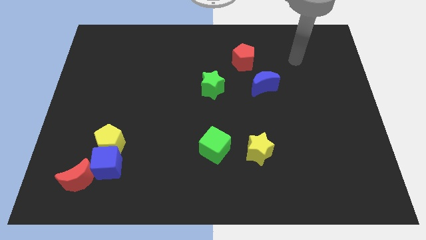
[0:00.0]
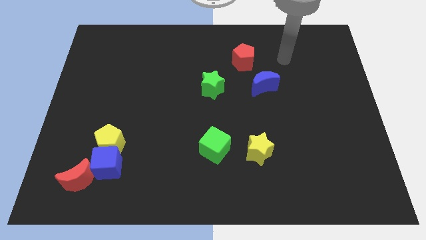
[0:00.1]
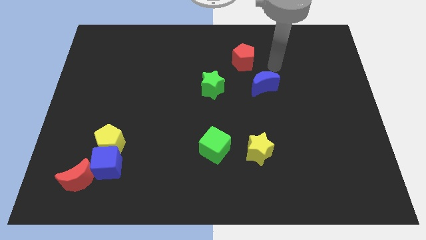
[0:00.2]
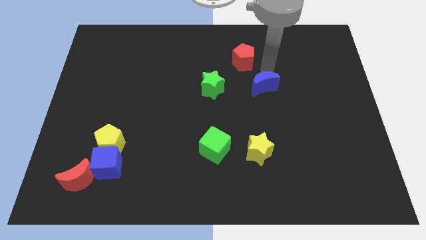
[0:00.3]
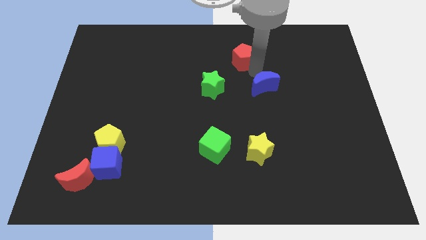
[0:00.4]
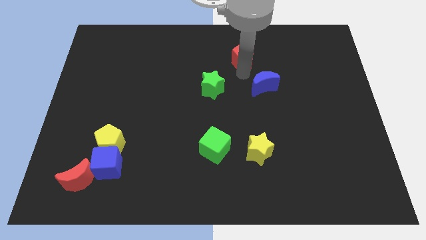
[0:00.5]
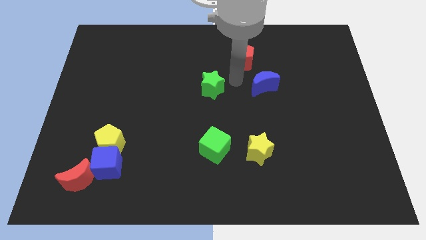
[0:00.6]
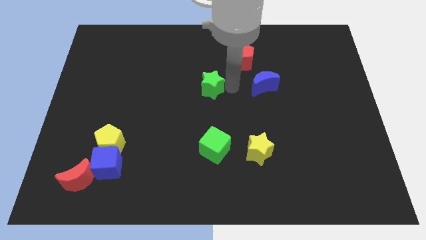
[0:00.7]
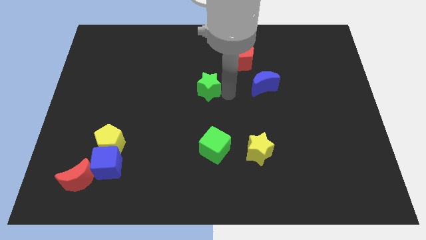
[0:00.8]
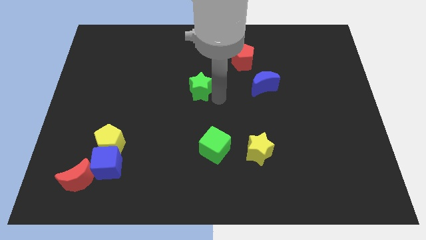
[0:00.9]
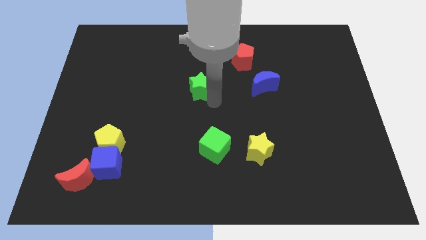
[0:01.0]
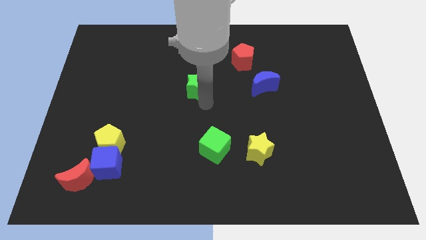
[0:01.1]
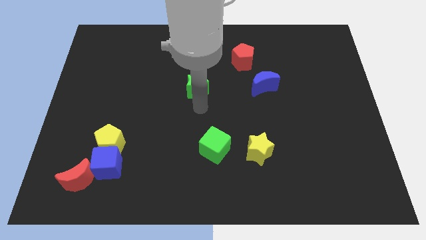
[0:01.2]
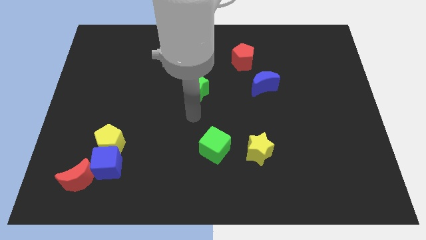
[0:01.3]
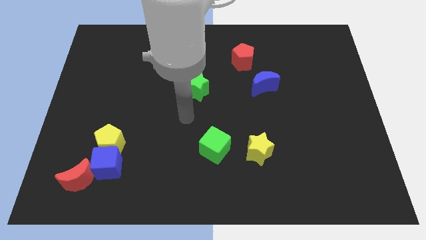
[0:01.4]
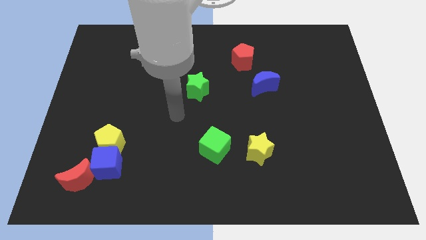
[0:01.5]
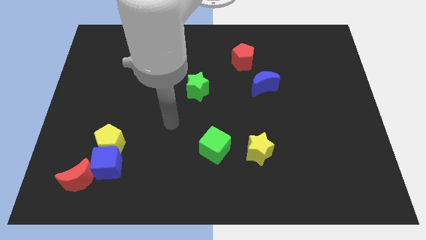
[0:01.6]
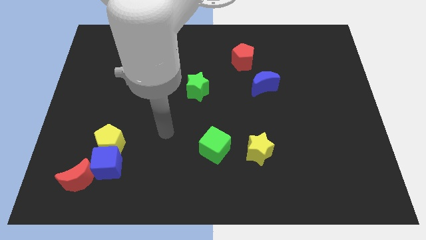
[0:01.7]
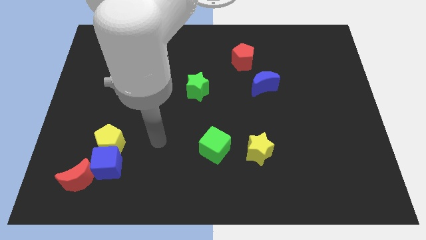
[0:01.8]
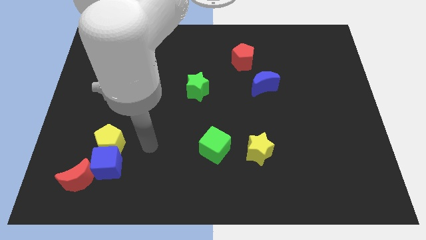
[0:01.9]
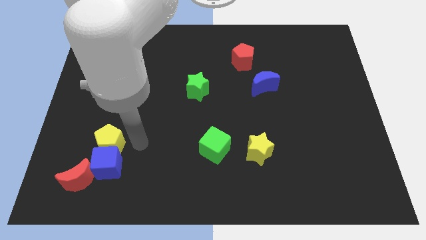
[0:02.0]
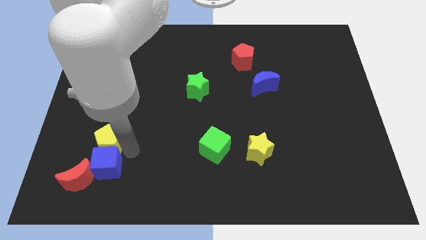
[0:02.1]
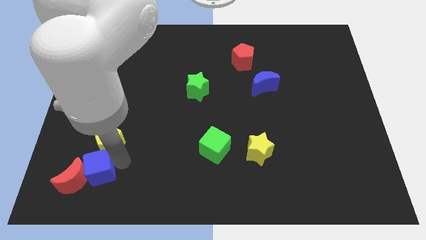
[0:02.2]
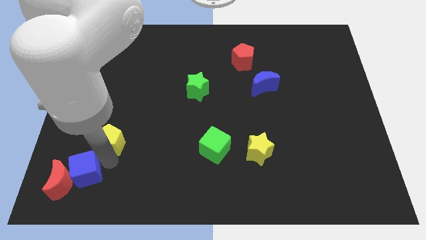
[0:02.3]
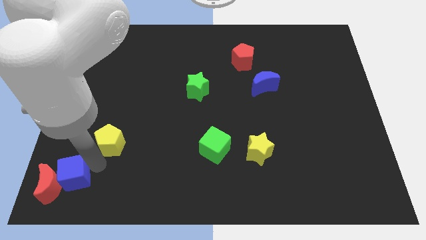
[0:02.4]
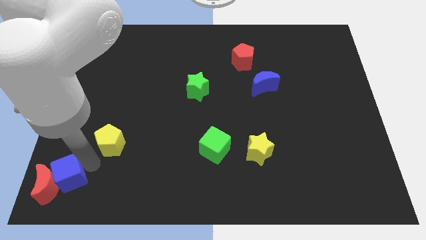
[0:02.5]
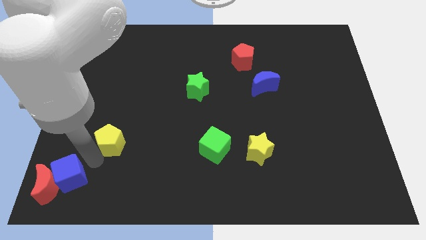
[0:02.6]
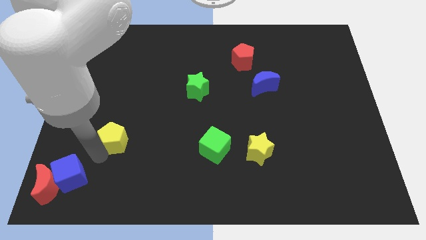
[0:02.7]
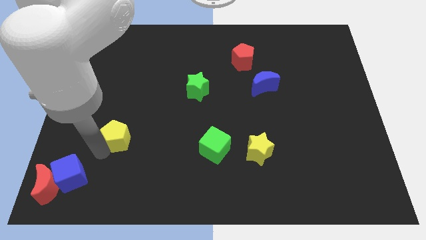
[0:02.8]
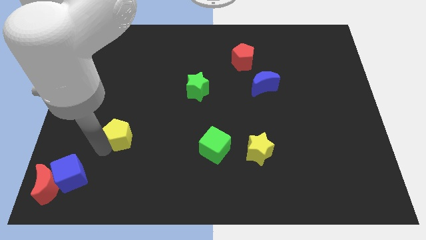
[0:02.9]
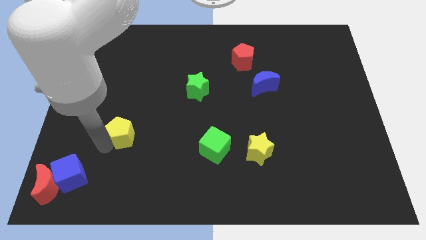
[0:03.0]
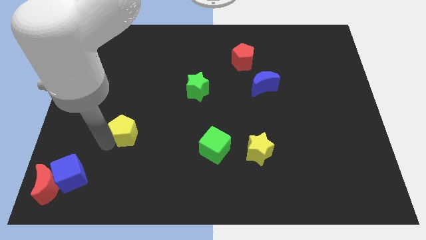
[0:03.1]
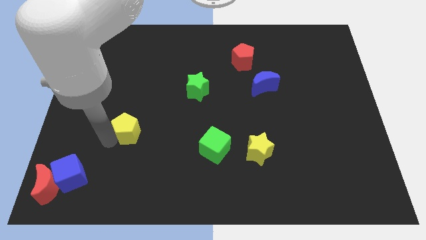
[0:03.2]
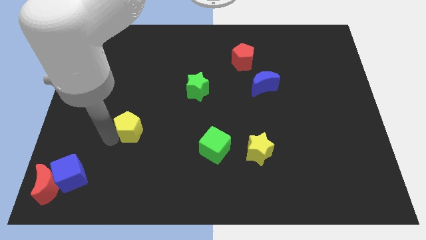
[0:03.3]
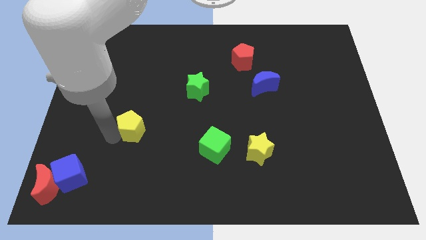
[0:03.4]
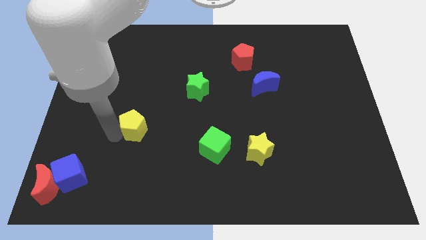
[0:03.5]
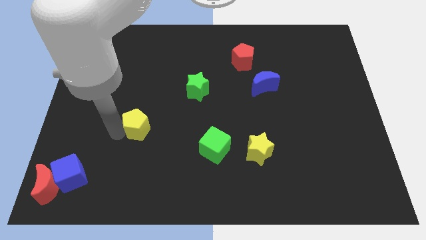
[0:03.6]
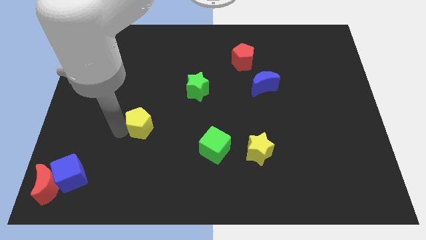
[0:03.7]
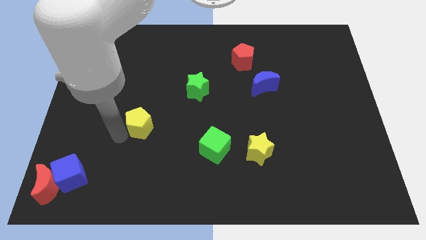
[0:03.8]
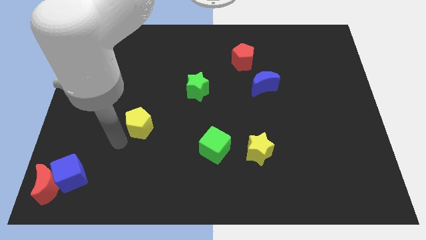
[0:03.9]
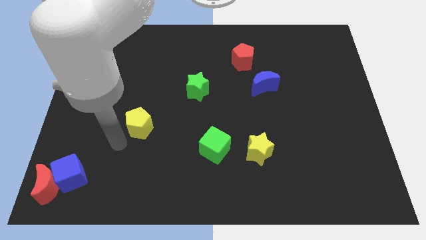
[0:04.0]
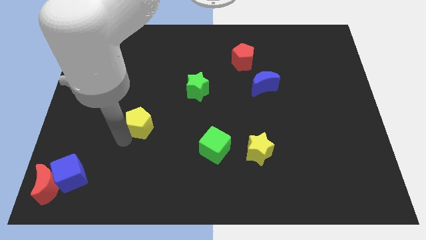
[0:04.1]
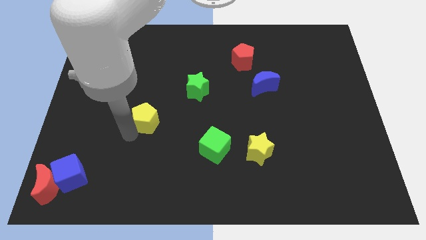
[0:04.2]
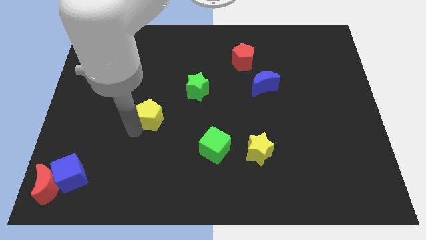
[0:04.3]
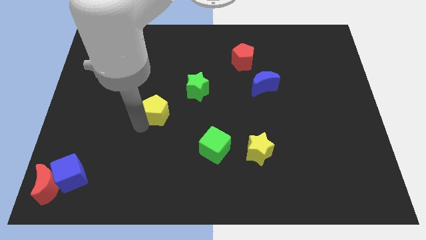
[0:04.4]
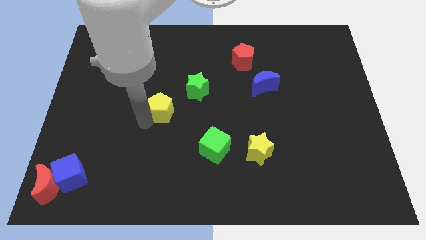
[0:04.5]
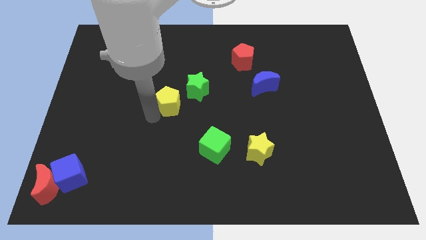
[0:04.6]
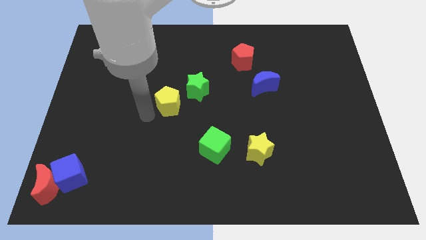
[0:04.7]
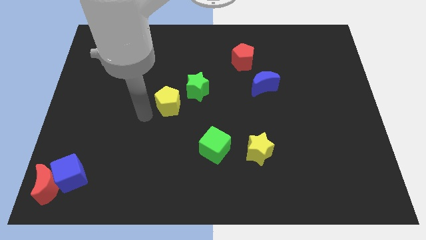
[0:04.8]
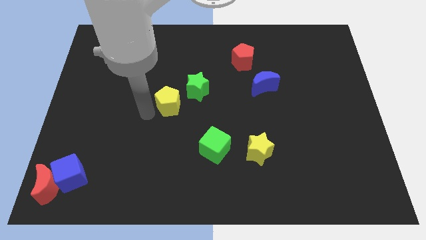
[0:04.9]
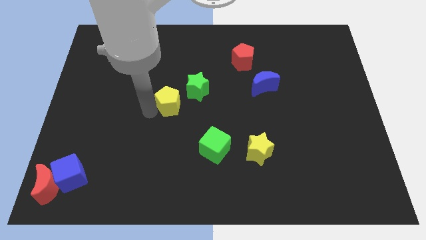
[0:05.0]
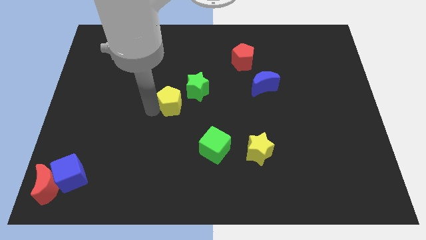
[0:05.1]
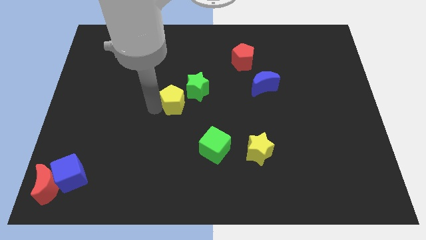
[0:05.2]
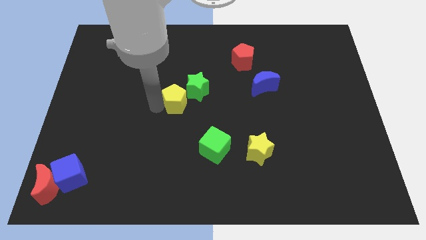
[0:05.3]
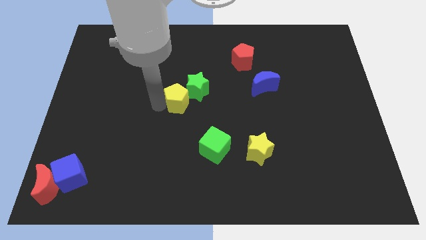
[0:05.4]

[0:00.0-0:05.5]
slide the yellow pentagon close to the green star

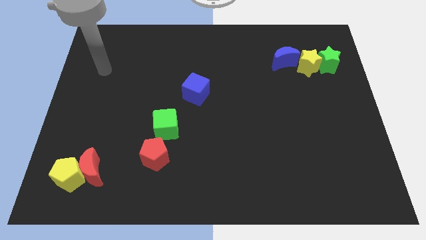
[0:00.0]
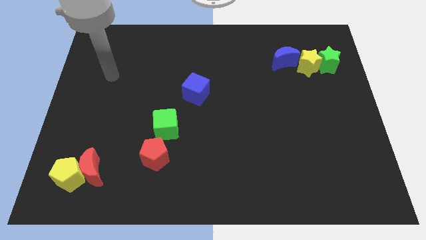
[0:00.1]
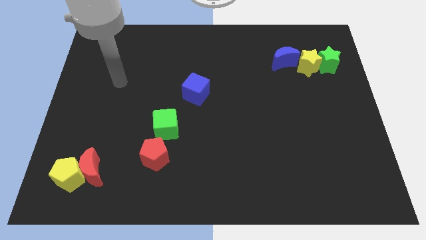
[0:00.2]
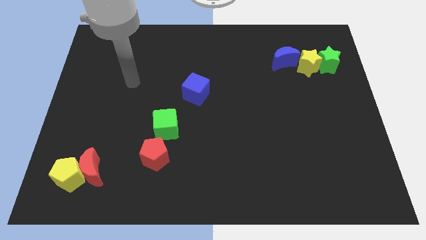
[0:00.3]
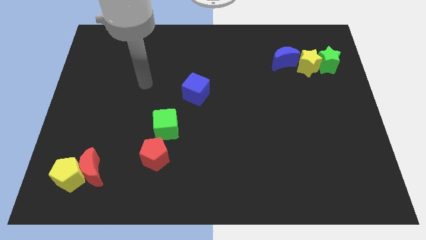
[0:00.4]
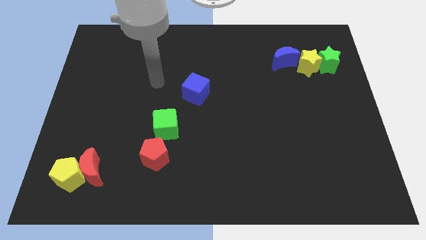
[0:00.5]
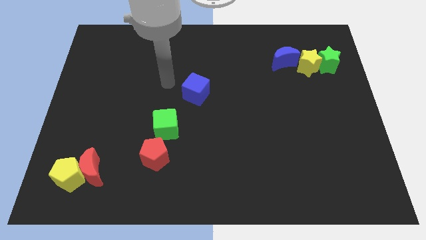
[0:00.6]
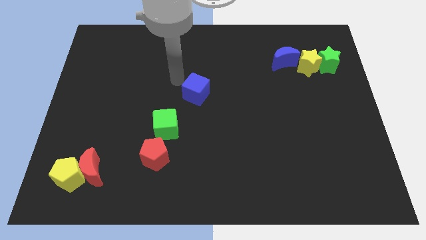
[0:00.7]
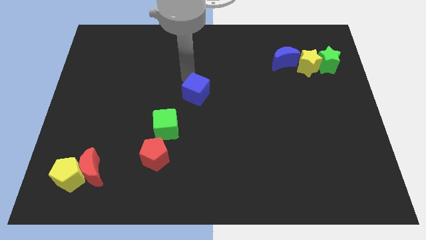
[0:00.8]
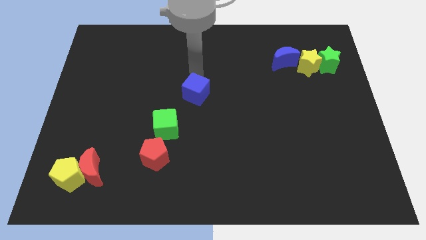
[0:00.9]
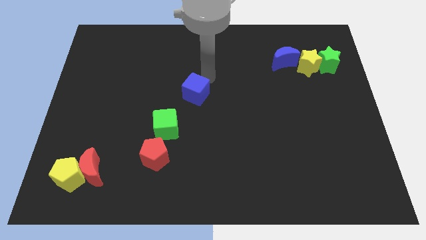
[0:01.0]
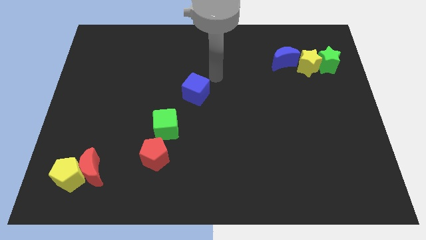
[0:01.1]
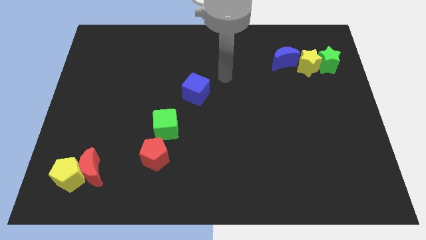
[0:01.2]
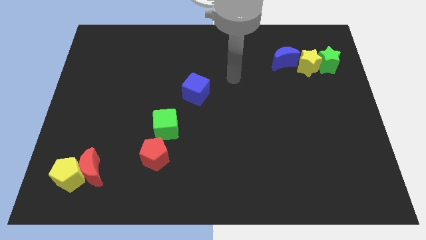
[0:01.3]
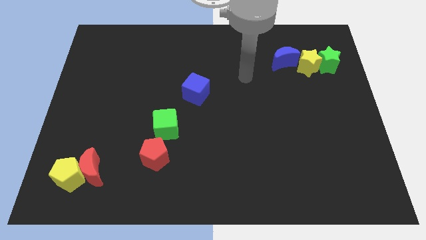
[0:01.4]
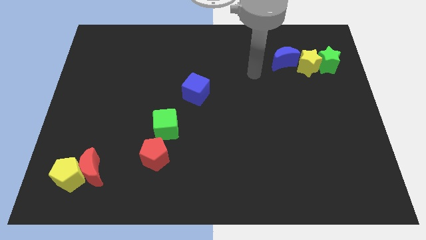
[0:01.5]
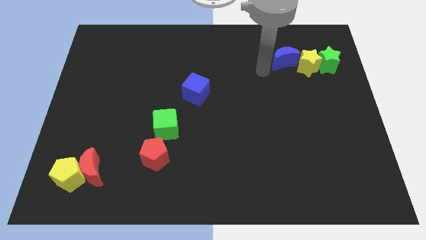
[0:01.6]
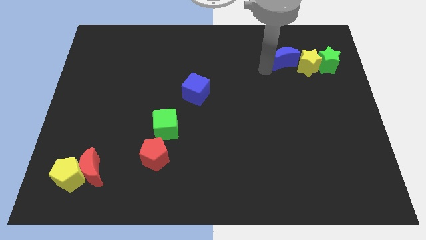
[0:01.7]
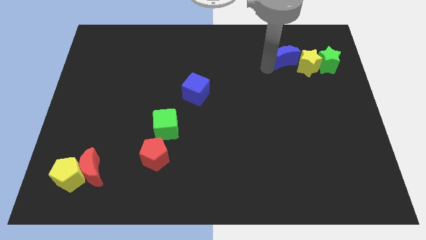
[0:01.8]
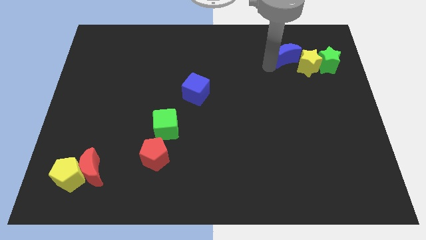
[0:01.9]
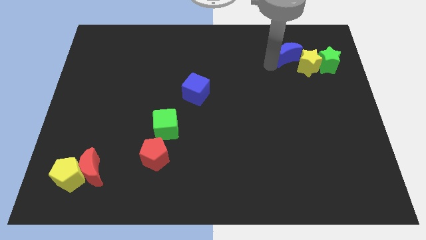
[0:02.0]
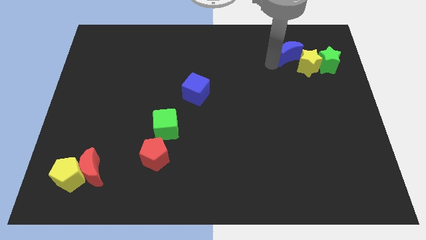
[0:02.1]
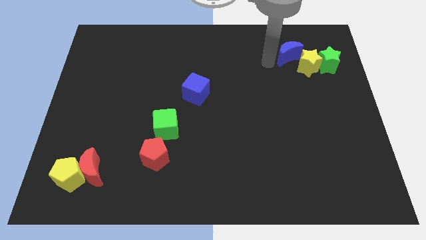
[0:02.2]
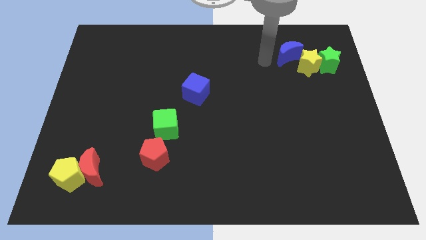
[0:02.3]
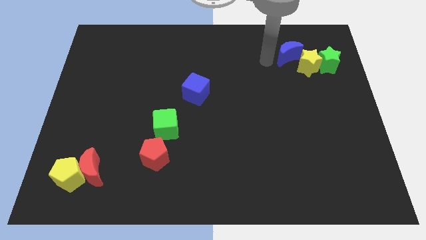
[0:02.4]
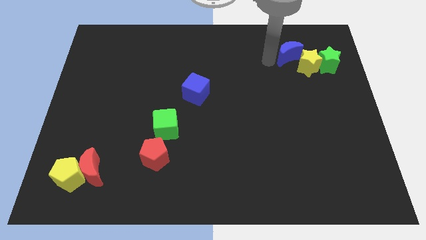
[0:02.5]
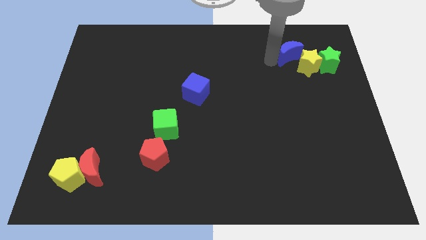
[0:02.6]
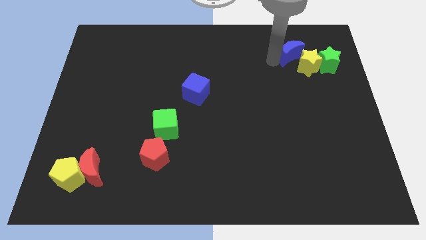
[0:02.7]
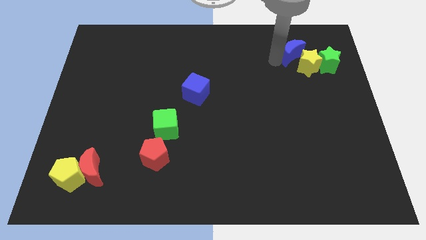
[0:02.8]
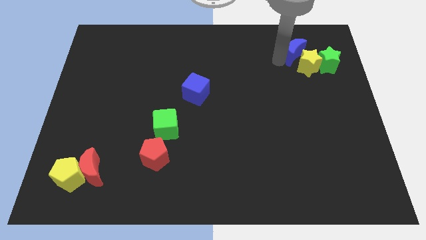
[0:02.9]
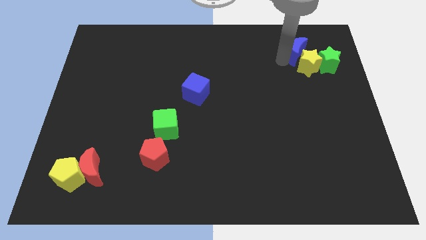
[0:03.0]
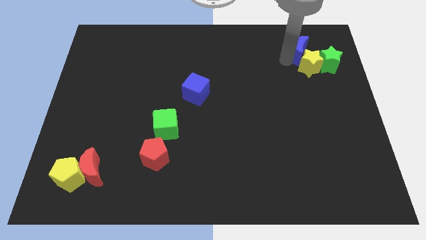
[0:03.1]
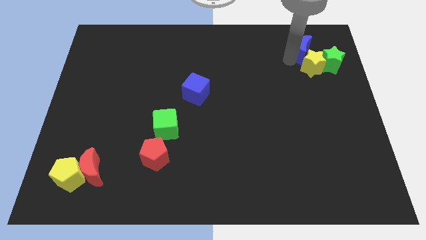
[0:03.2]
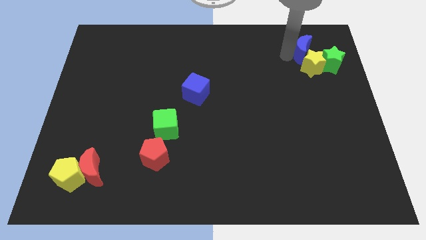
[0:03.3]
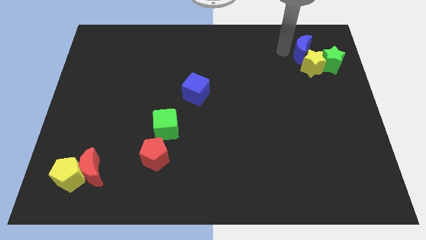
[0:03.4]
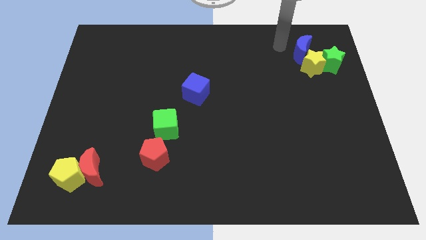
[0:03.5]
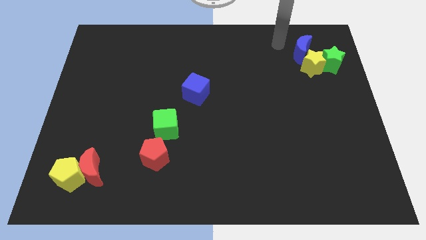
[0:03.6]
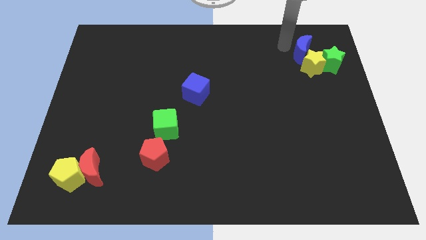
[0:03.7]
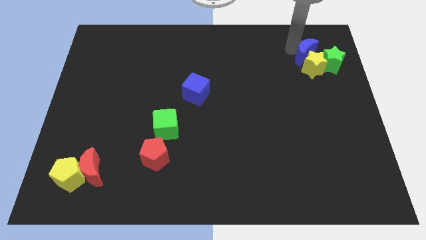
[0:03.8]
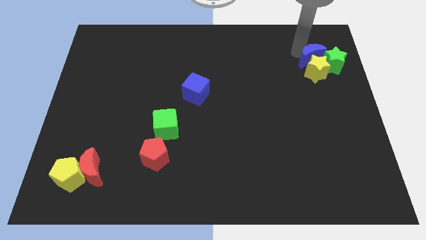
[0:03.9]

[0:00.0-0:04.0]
move the blue moon next to the green star
